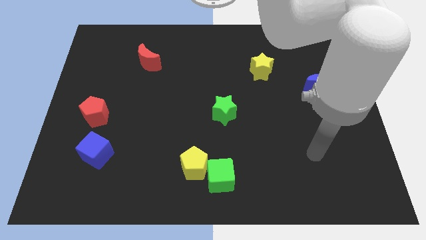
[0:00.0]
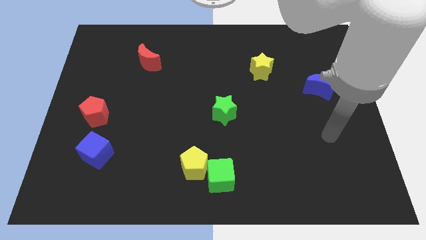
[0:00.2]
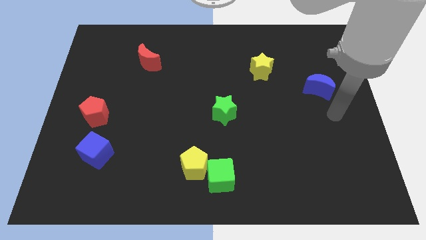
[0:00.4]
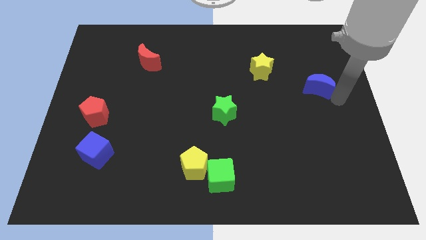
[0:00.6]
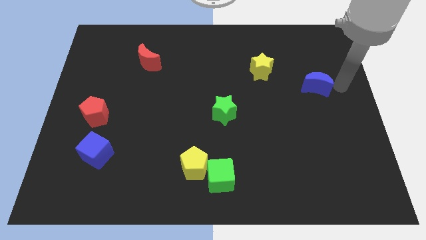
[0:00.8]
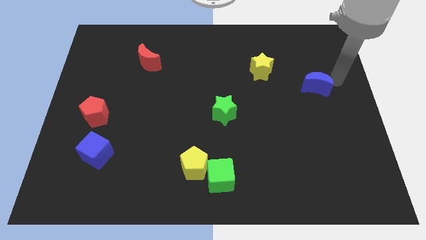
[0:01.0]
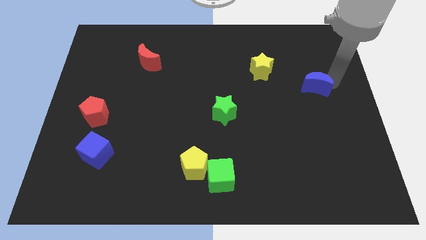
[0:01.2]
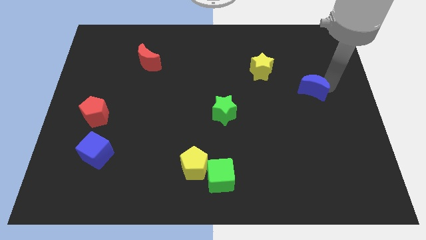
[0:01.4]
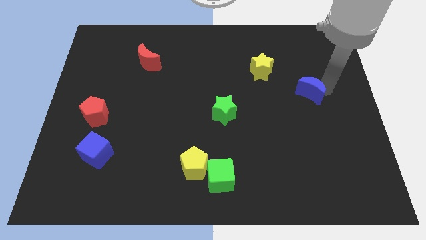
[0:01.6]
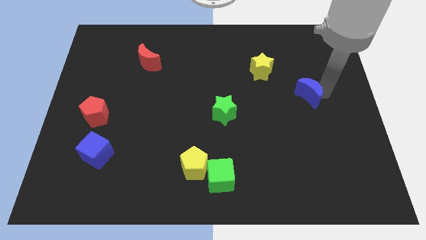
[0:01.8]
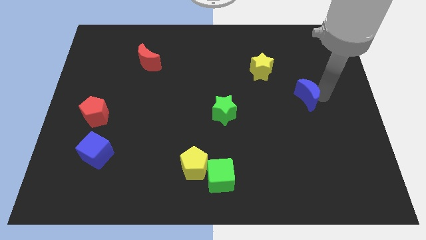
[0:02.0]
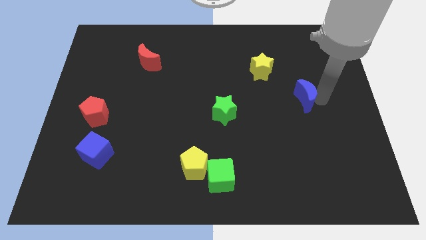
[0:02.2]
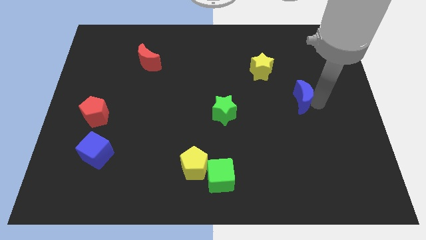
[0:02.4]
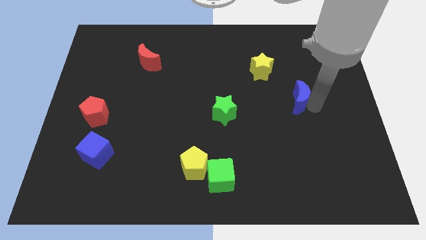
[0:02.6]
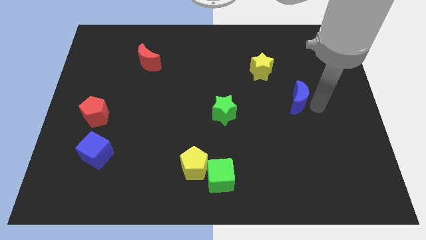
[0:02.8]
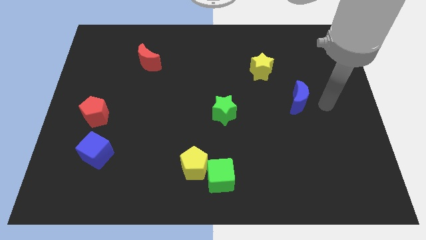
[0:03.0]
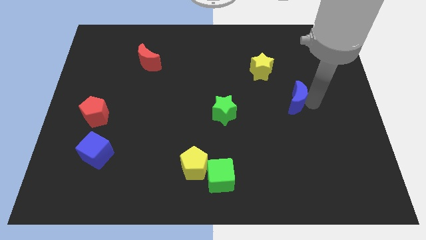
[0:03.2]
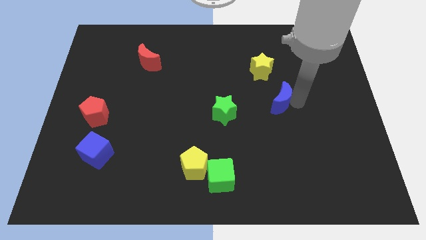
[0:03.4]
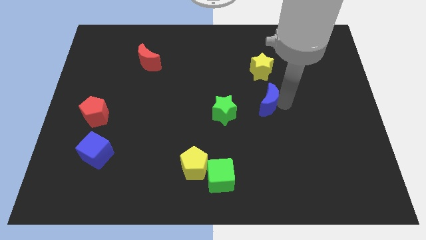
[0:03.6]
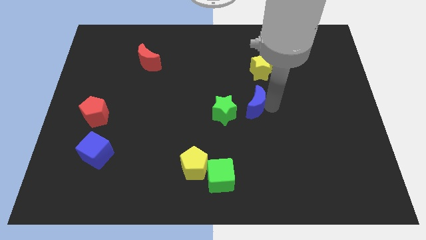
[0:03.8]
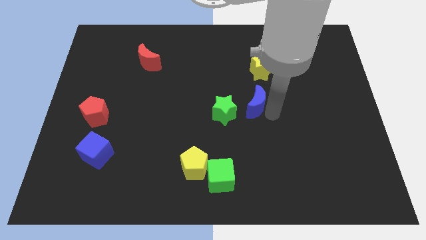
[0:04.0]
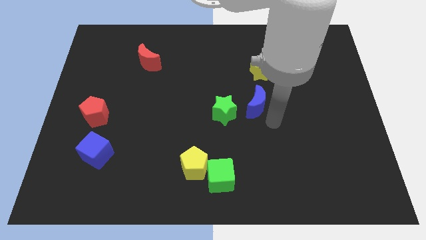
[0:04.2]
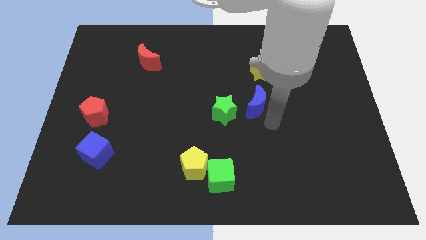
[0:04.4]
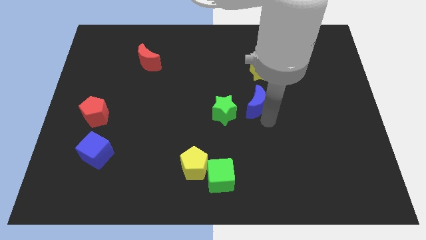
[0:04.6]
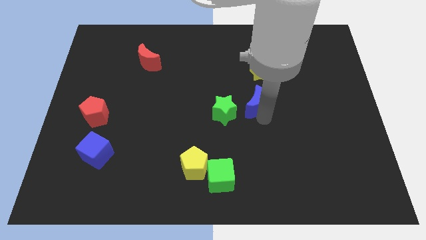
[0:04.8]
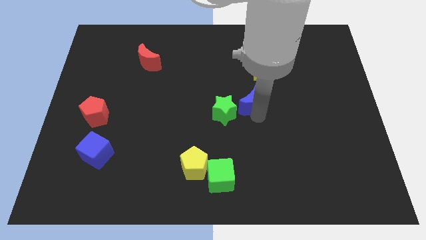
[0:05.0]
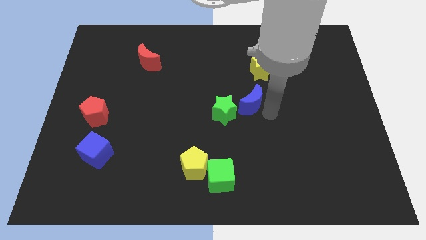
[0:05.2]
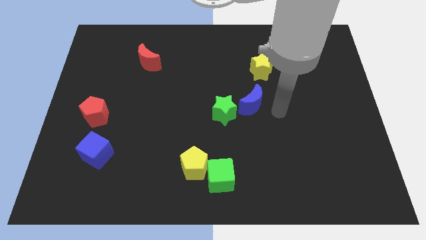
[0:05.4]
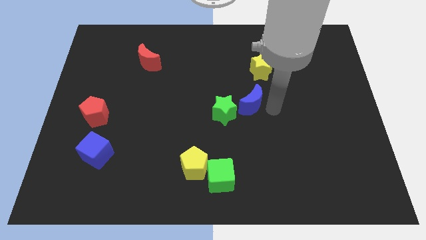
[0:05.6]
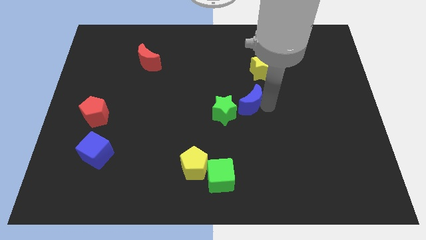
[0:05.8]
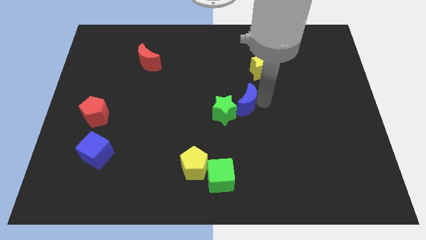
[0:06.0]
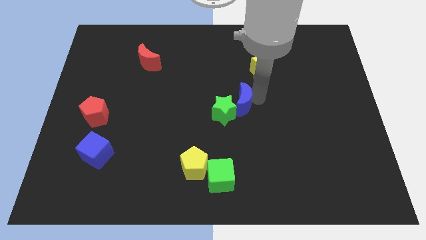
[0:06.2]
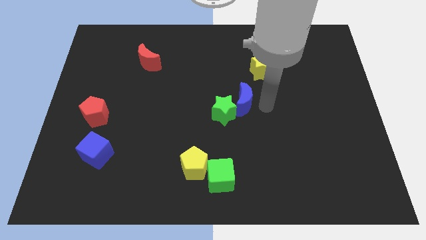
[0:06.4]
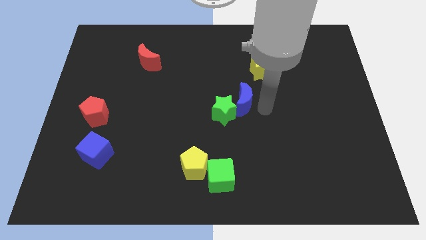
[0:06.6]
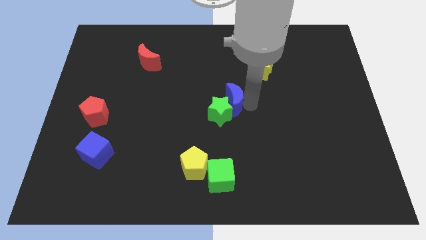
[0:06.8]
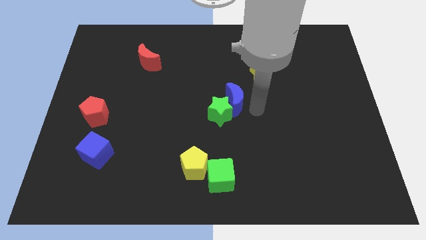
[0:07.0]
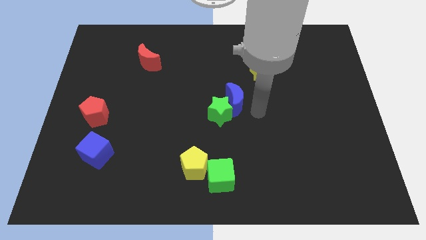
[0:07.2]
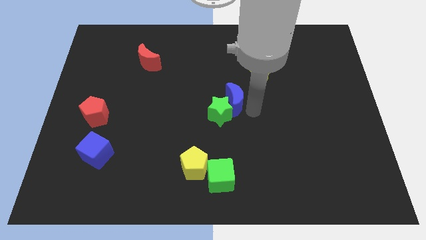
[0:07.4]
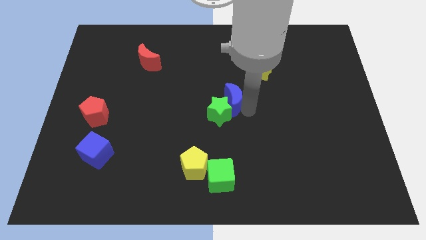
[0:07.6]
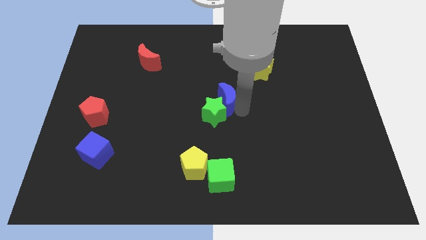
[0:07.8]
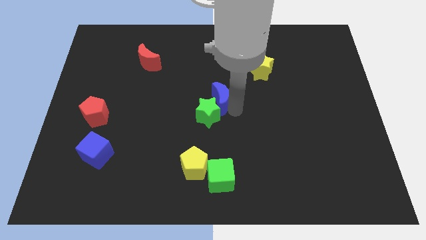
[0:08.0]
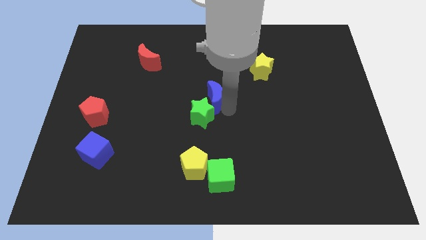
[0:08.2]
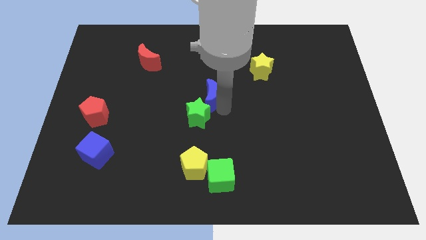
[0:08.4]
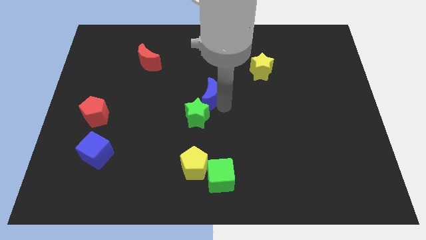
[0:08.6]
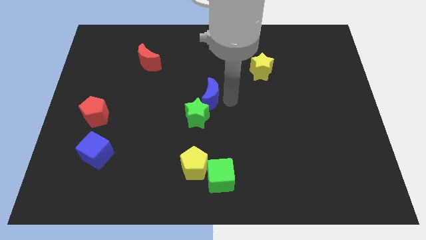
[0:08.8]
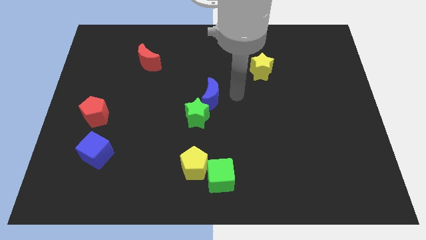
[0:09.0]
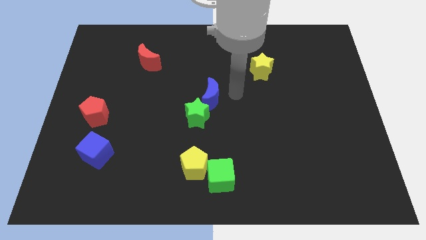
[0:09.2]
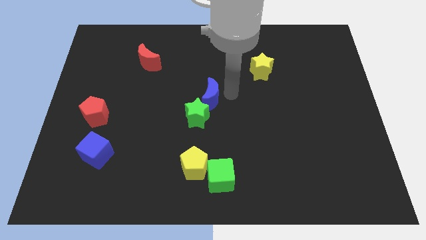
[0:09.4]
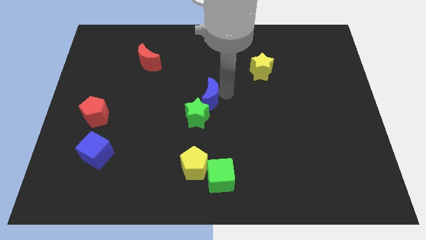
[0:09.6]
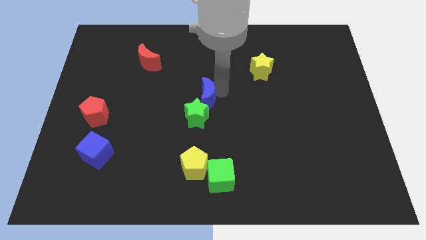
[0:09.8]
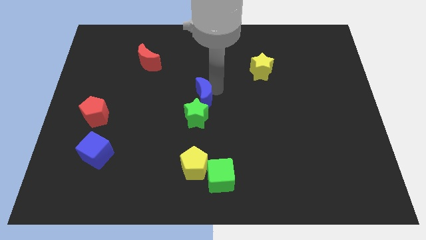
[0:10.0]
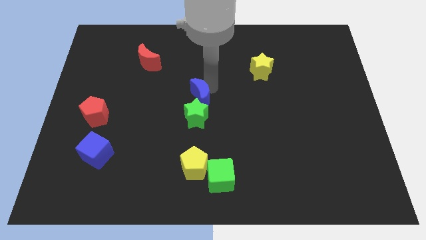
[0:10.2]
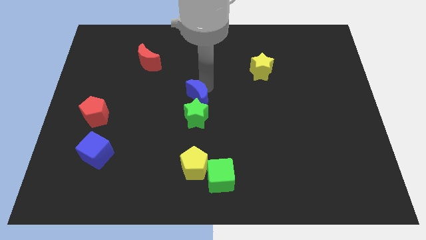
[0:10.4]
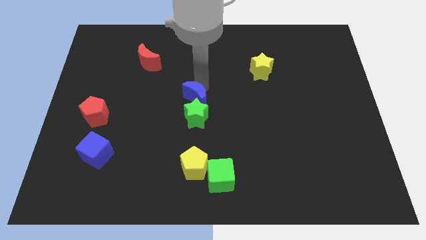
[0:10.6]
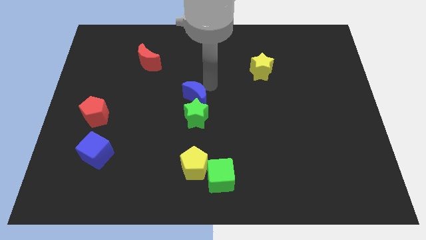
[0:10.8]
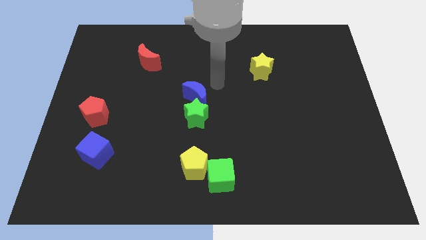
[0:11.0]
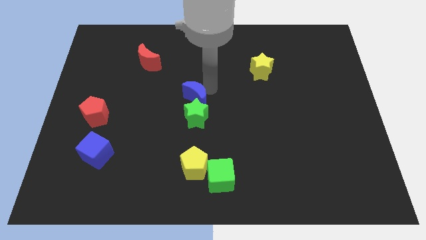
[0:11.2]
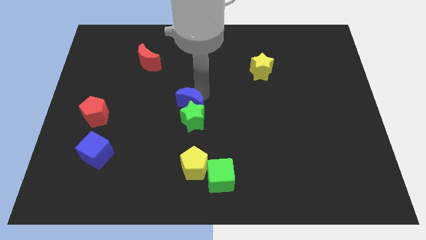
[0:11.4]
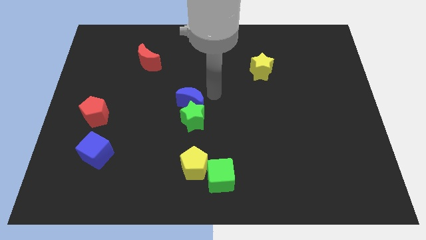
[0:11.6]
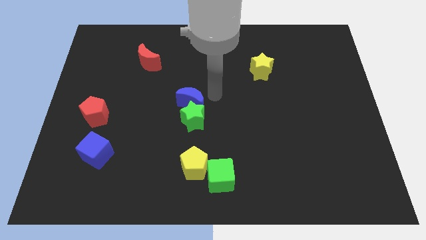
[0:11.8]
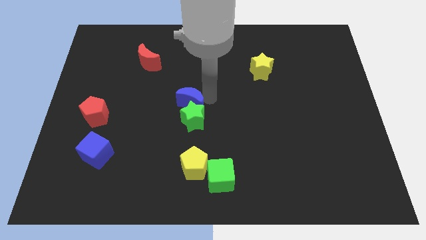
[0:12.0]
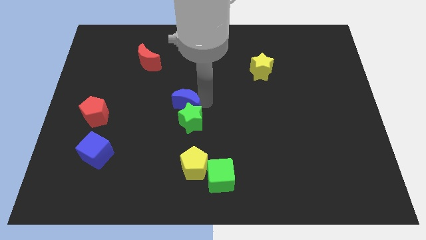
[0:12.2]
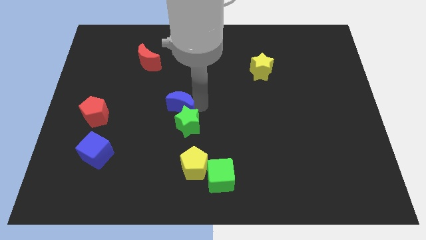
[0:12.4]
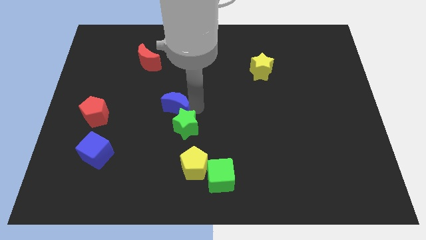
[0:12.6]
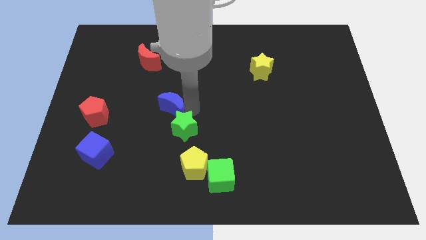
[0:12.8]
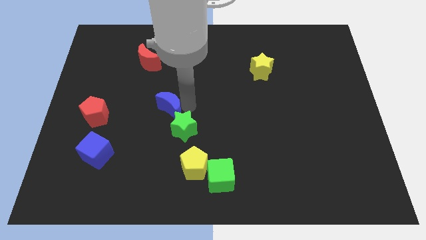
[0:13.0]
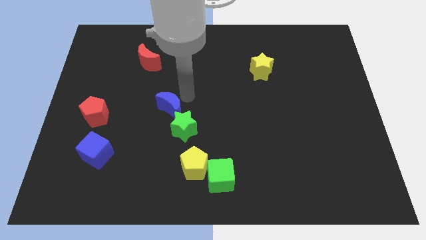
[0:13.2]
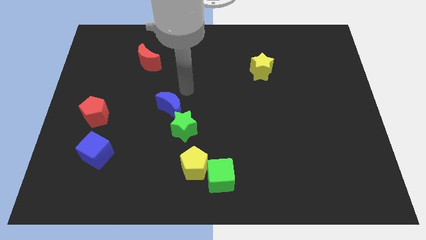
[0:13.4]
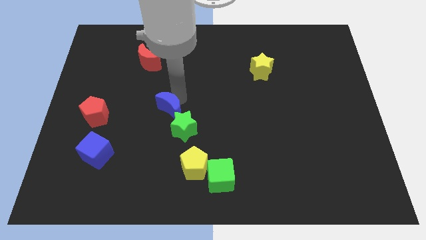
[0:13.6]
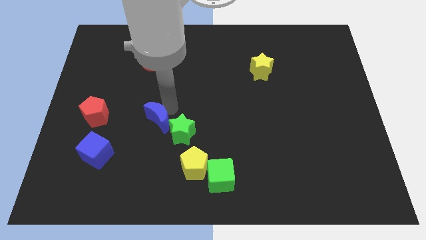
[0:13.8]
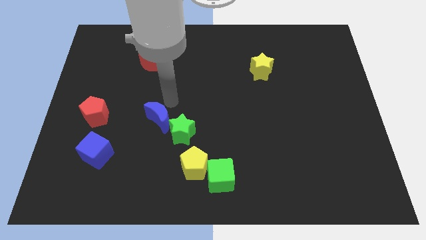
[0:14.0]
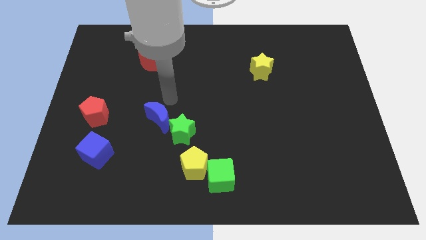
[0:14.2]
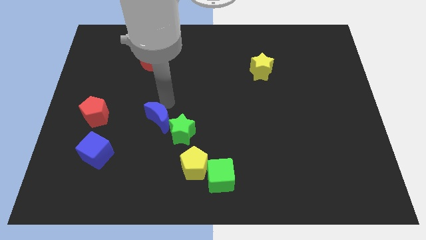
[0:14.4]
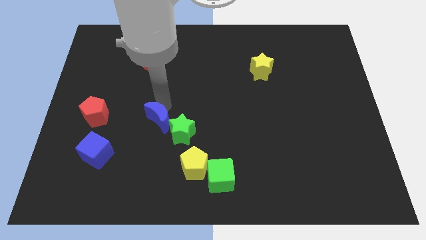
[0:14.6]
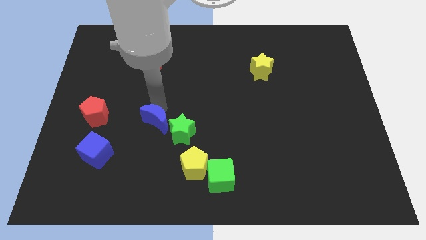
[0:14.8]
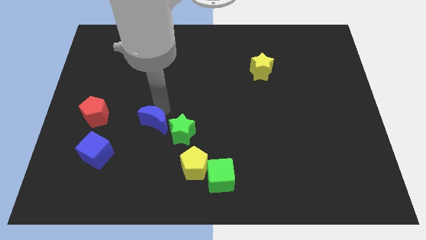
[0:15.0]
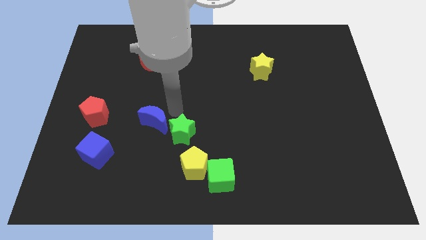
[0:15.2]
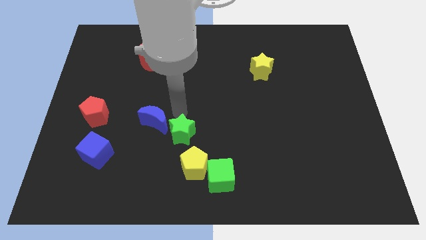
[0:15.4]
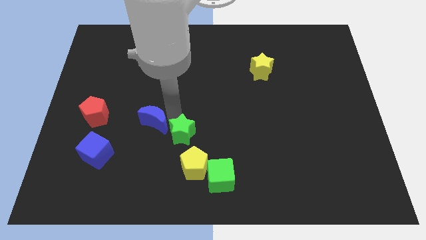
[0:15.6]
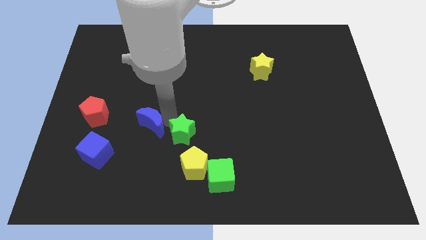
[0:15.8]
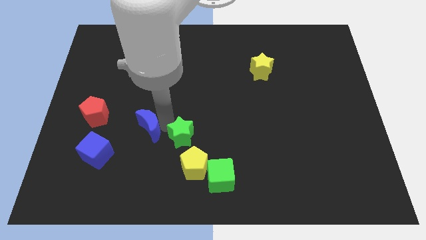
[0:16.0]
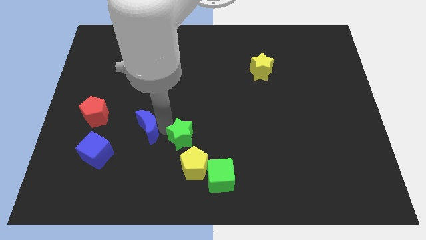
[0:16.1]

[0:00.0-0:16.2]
slide the blue moon to the top right side of the blue cube
